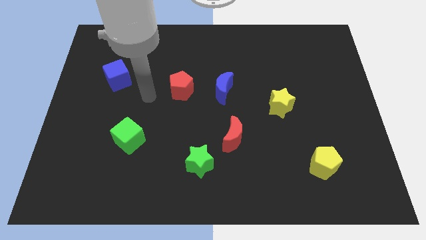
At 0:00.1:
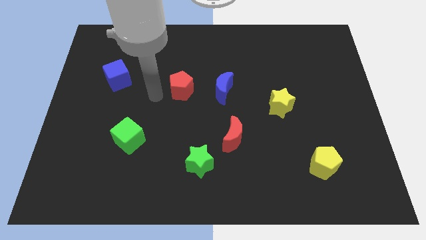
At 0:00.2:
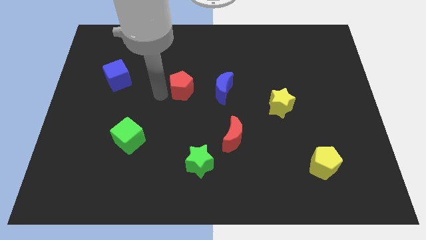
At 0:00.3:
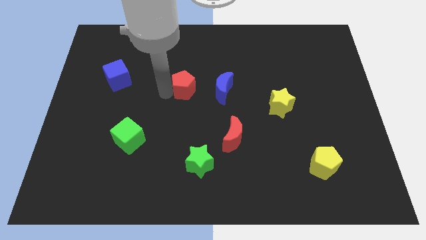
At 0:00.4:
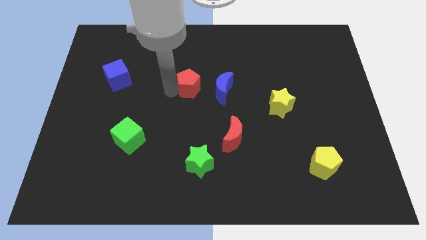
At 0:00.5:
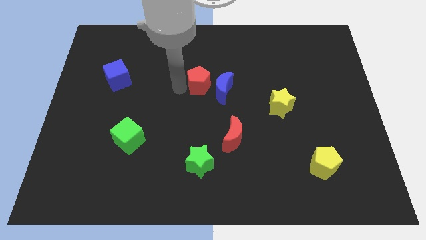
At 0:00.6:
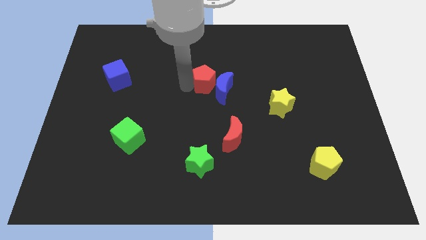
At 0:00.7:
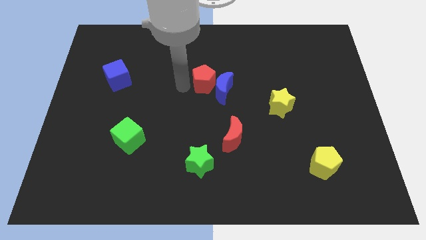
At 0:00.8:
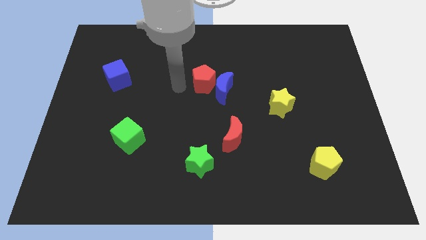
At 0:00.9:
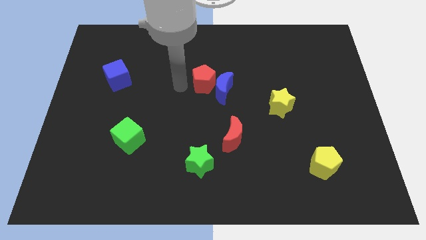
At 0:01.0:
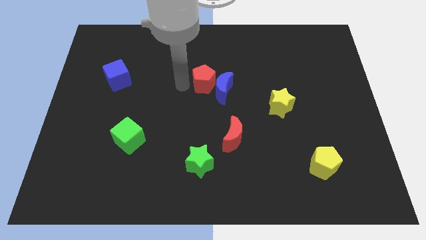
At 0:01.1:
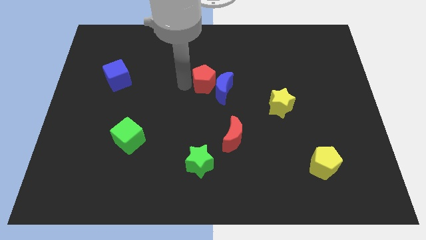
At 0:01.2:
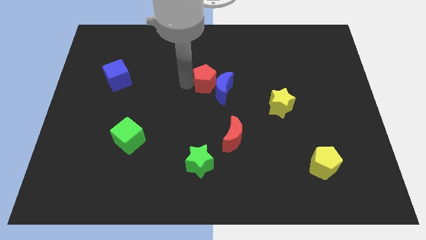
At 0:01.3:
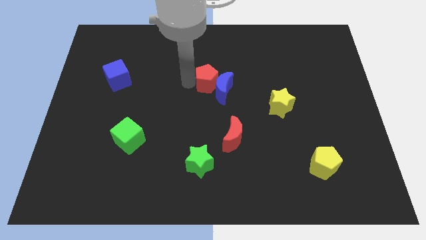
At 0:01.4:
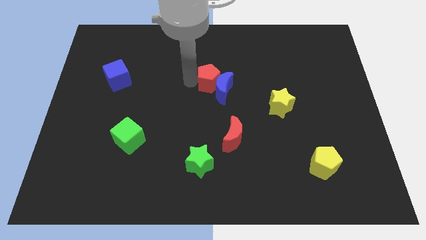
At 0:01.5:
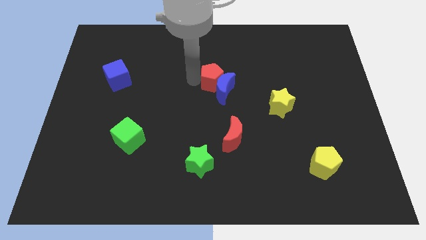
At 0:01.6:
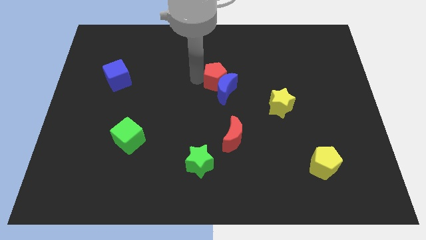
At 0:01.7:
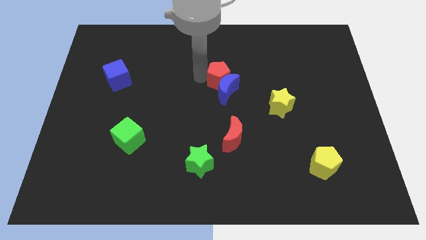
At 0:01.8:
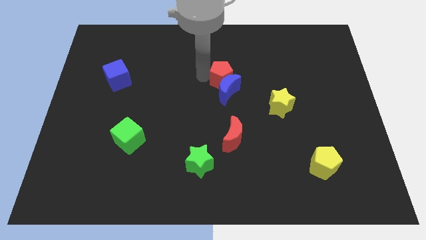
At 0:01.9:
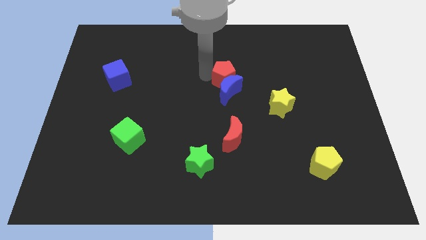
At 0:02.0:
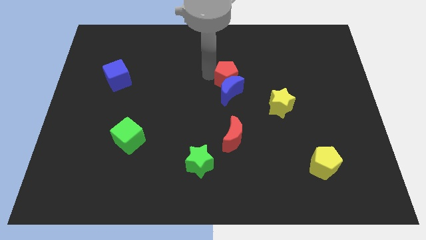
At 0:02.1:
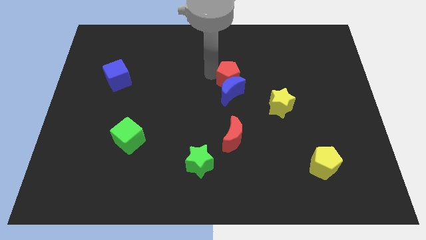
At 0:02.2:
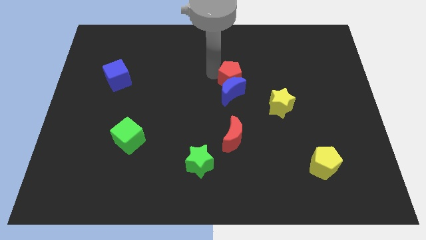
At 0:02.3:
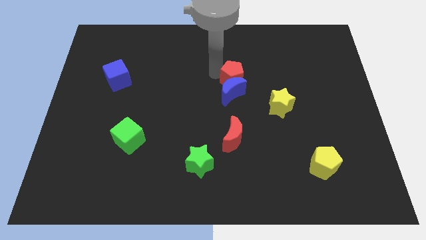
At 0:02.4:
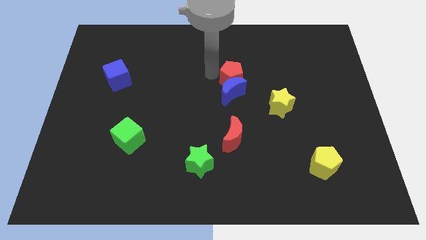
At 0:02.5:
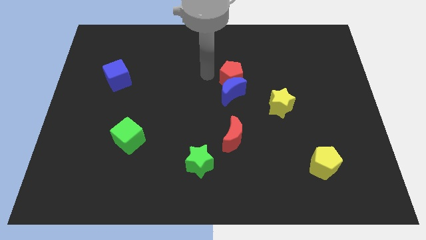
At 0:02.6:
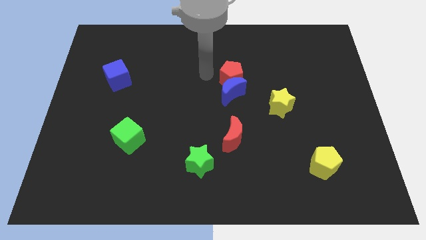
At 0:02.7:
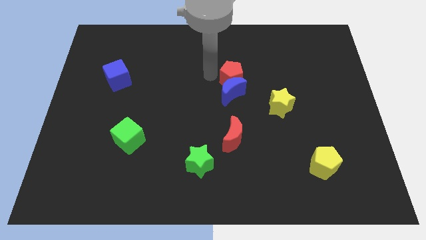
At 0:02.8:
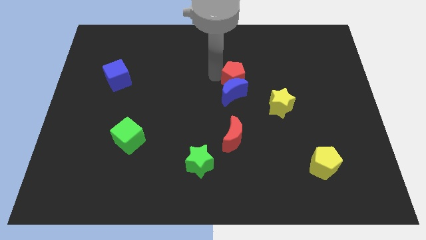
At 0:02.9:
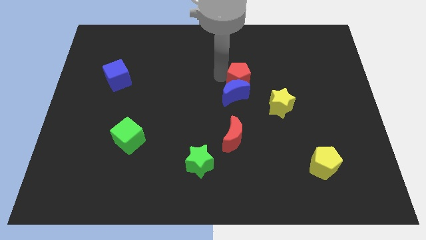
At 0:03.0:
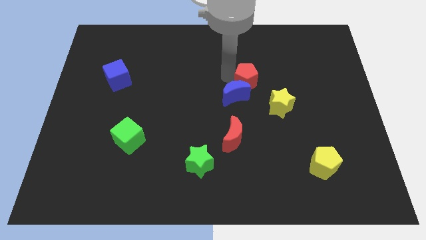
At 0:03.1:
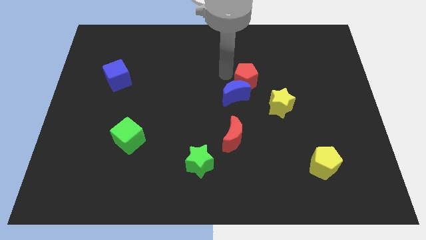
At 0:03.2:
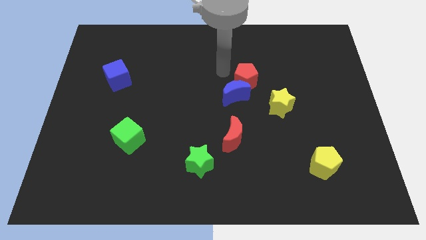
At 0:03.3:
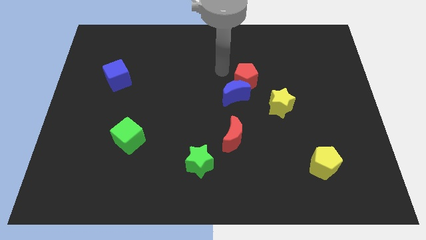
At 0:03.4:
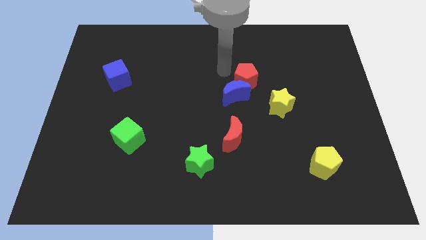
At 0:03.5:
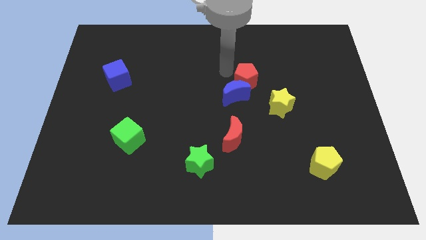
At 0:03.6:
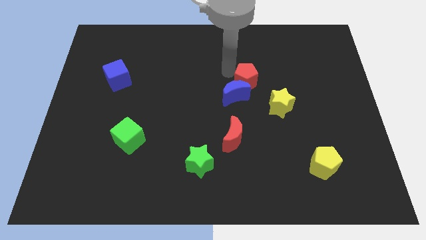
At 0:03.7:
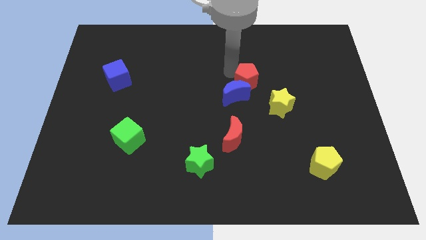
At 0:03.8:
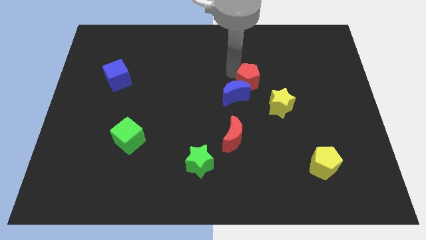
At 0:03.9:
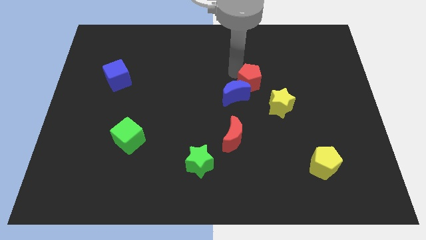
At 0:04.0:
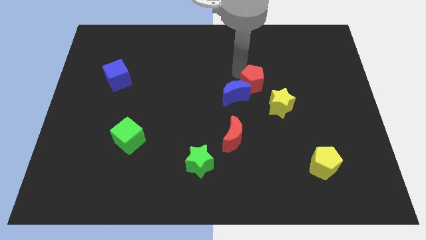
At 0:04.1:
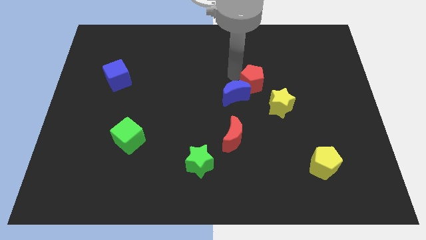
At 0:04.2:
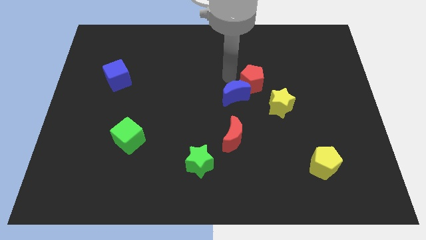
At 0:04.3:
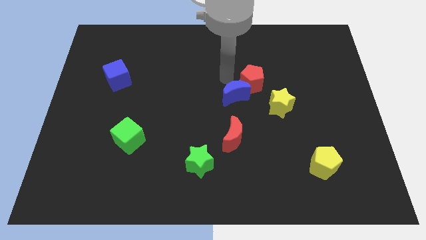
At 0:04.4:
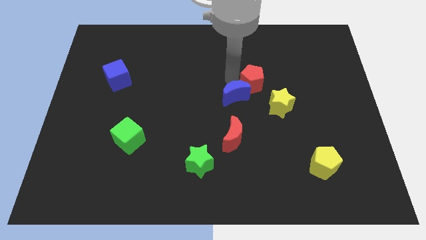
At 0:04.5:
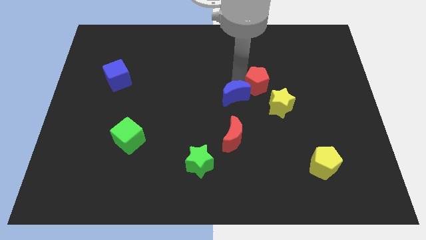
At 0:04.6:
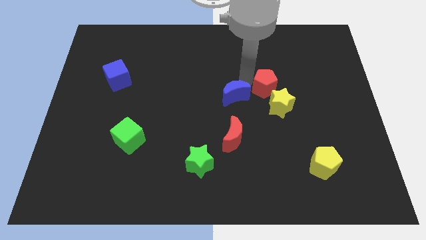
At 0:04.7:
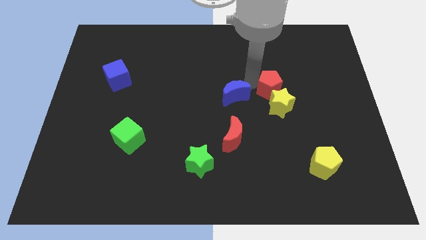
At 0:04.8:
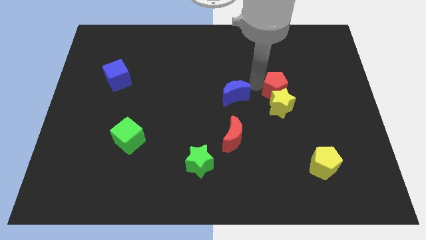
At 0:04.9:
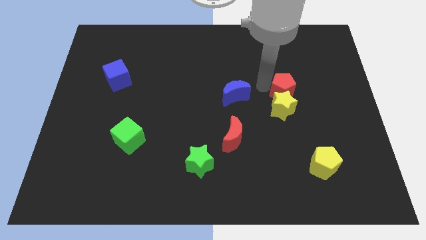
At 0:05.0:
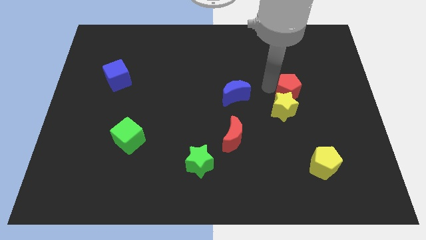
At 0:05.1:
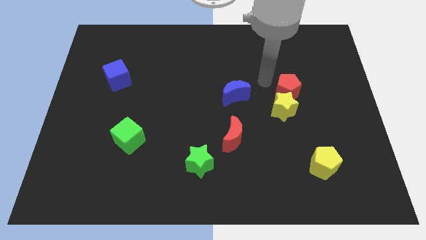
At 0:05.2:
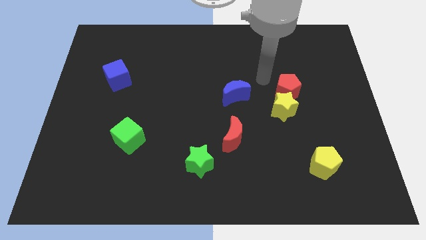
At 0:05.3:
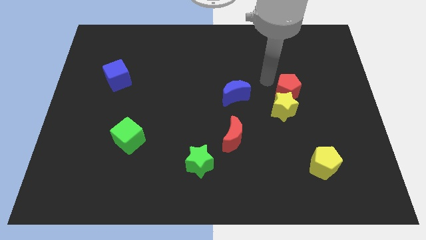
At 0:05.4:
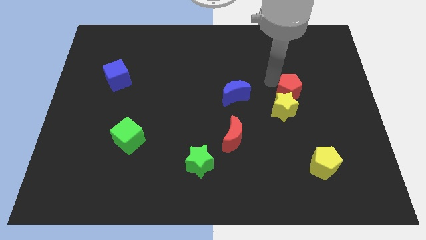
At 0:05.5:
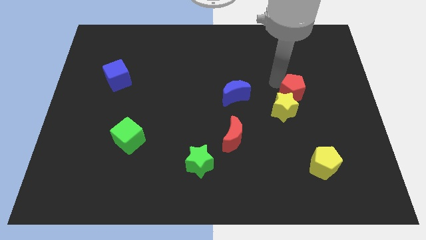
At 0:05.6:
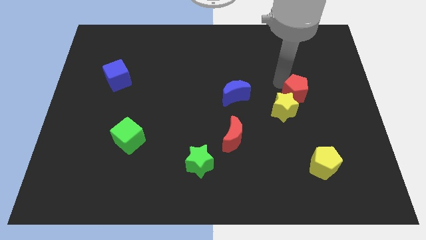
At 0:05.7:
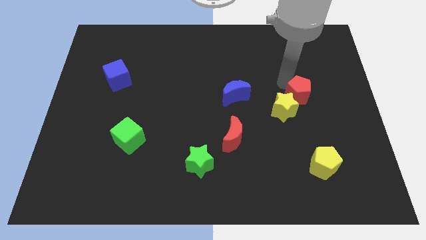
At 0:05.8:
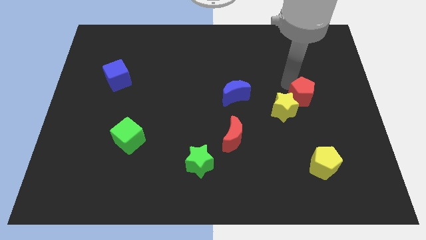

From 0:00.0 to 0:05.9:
move the red pentagon to the right of the yellow star

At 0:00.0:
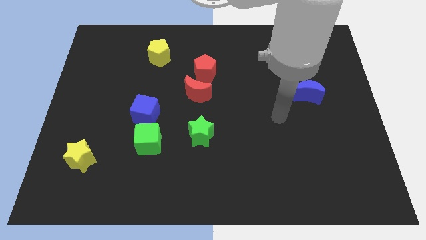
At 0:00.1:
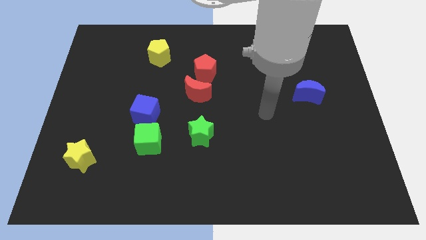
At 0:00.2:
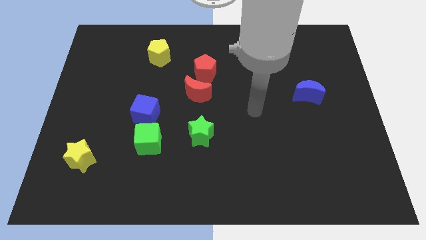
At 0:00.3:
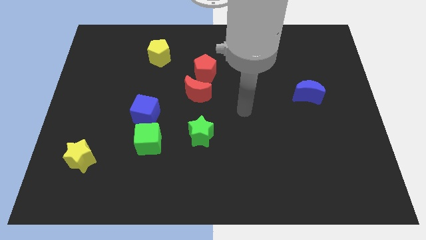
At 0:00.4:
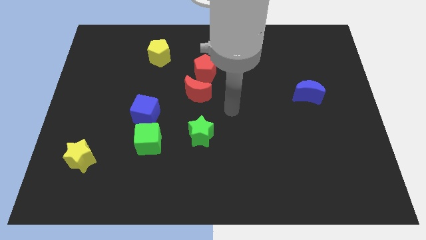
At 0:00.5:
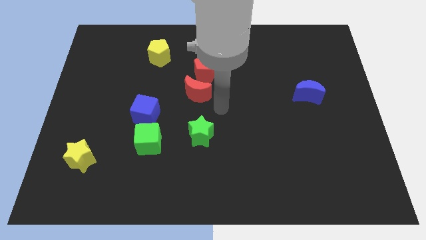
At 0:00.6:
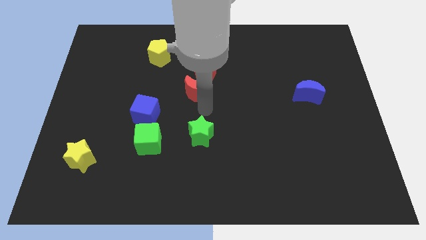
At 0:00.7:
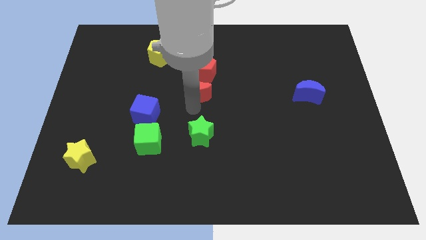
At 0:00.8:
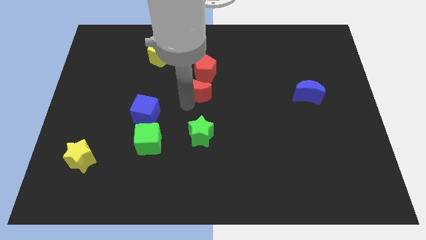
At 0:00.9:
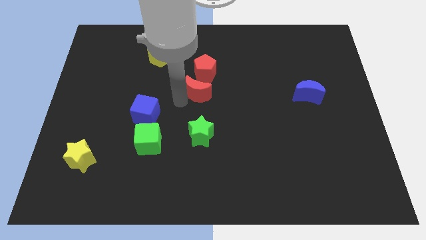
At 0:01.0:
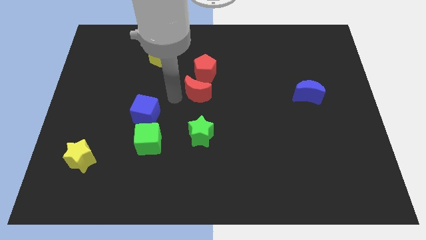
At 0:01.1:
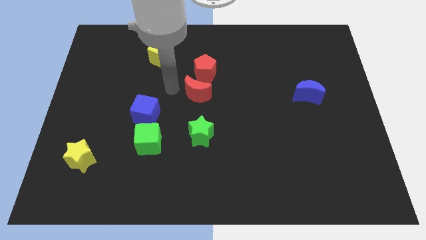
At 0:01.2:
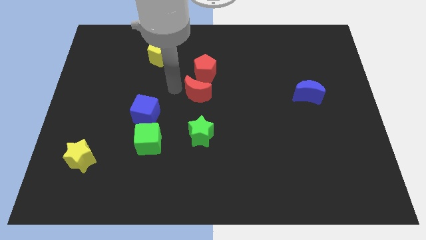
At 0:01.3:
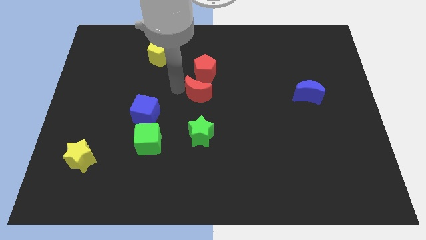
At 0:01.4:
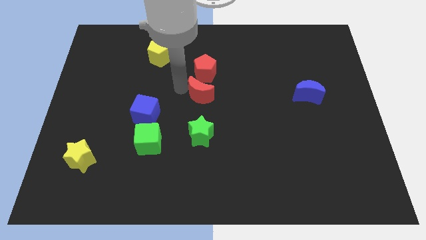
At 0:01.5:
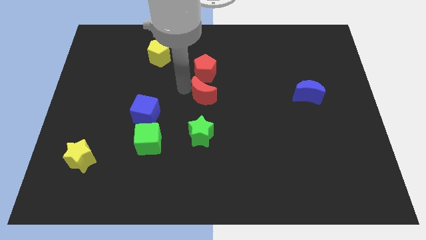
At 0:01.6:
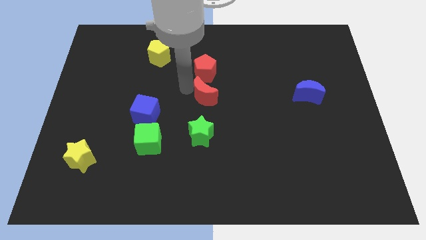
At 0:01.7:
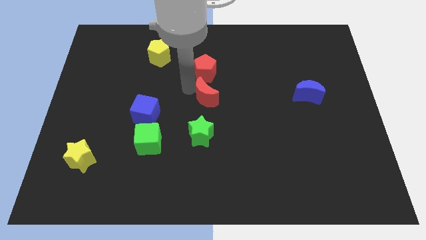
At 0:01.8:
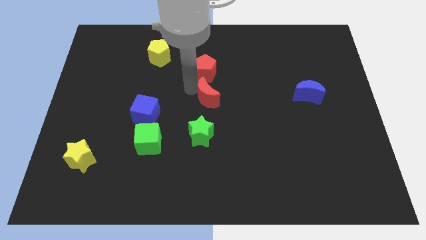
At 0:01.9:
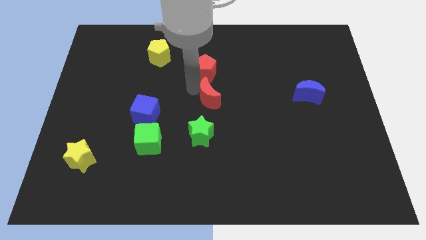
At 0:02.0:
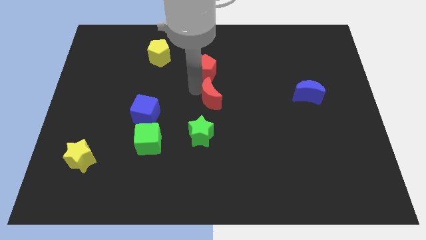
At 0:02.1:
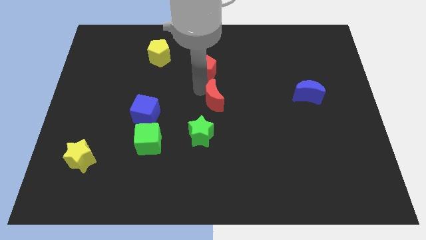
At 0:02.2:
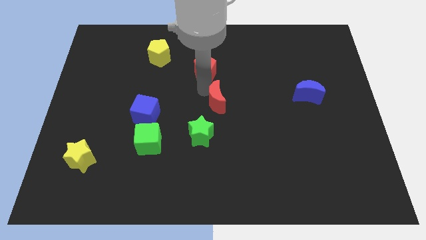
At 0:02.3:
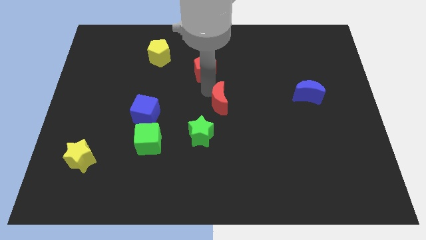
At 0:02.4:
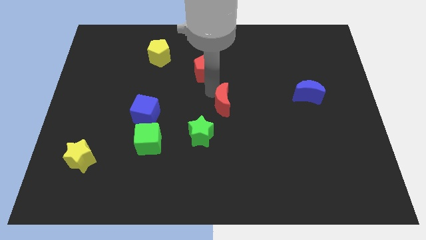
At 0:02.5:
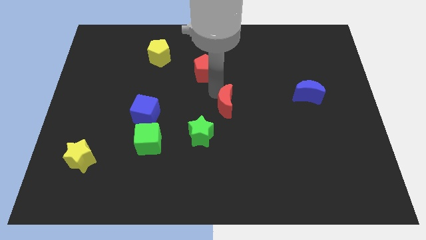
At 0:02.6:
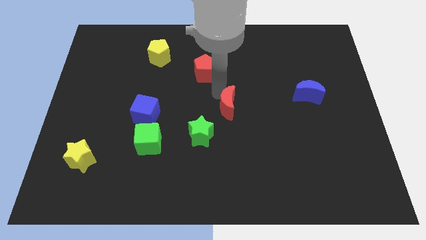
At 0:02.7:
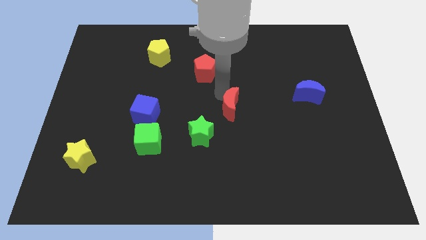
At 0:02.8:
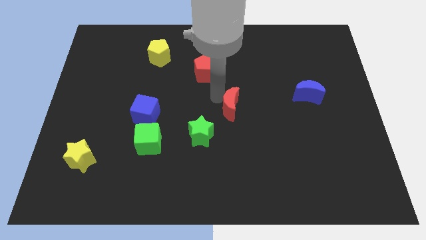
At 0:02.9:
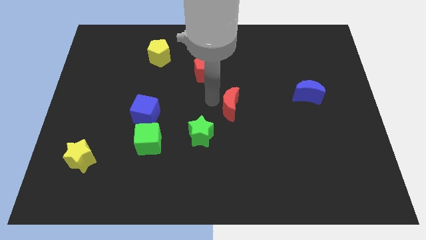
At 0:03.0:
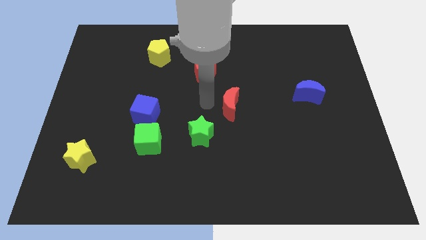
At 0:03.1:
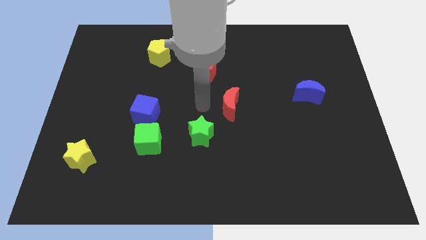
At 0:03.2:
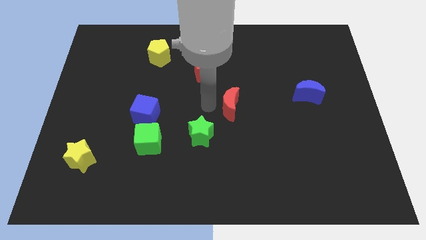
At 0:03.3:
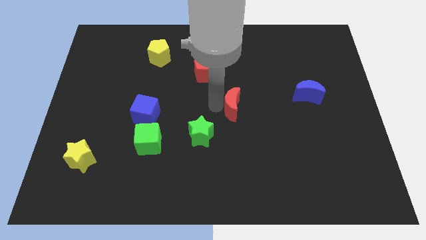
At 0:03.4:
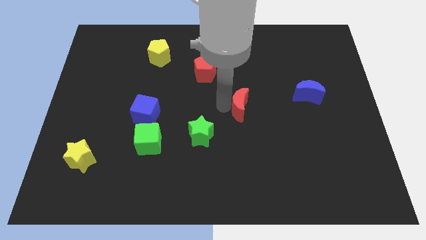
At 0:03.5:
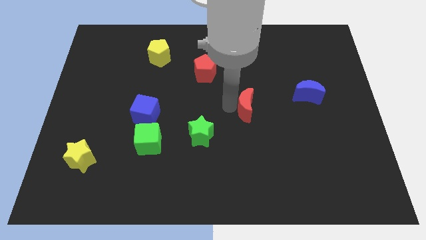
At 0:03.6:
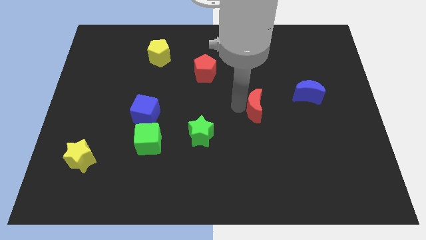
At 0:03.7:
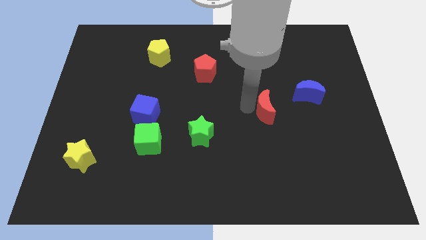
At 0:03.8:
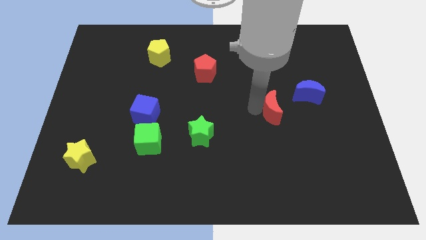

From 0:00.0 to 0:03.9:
put the red moon to the bottom left of the blue moon
